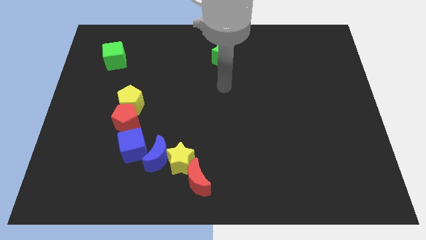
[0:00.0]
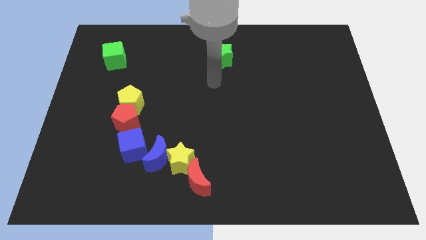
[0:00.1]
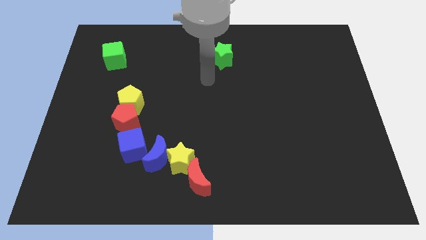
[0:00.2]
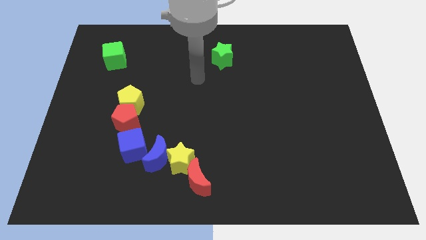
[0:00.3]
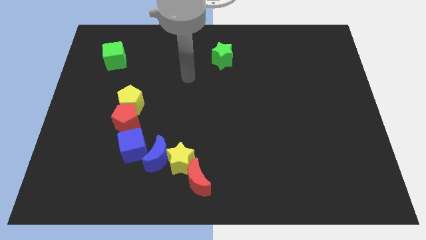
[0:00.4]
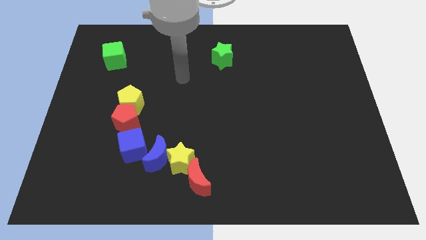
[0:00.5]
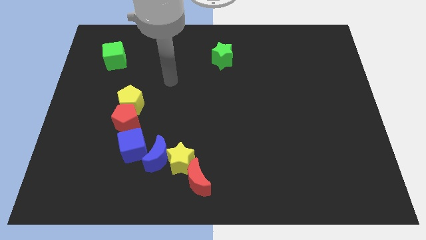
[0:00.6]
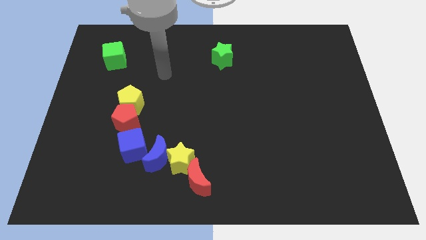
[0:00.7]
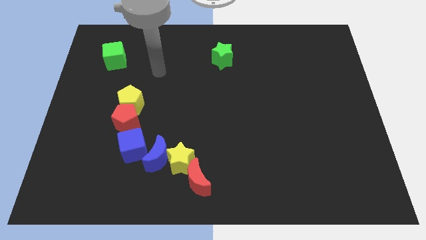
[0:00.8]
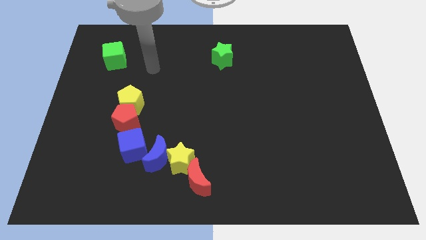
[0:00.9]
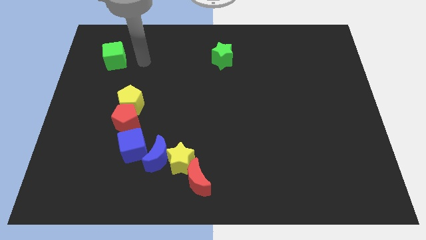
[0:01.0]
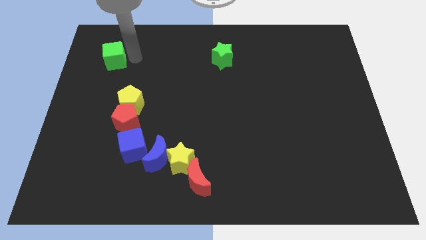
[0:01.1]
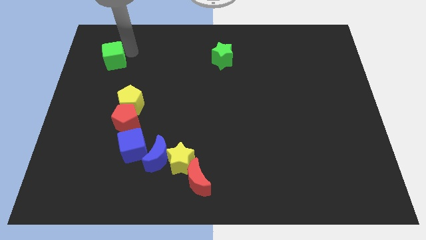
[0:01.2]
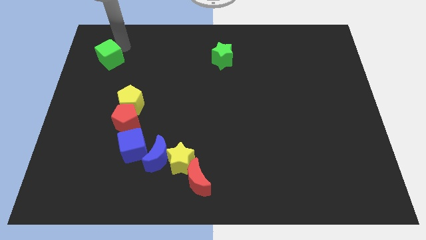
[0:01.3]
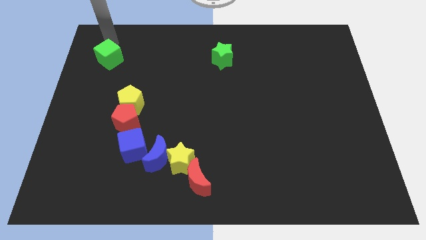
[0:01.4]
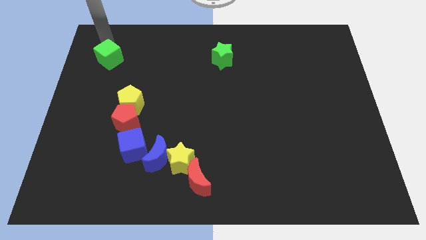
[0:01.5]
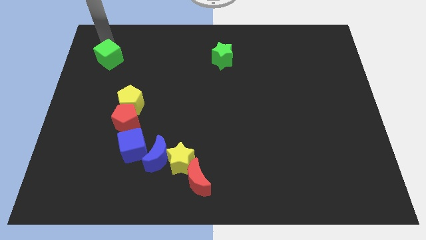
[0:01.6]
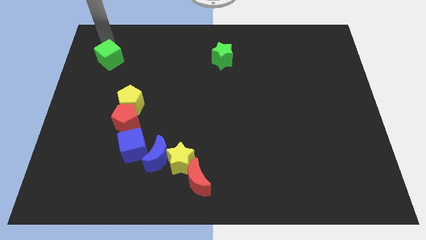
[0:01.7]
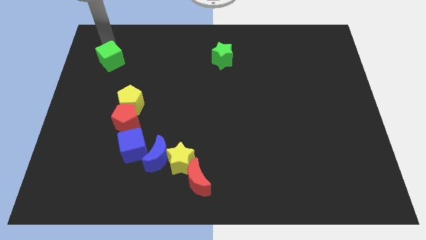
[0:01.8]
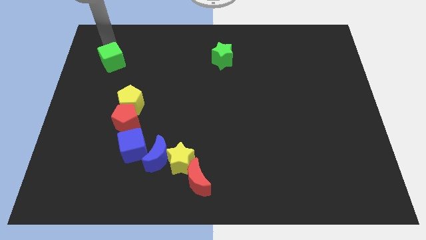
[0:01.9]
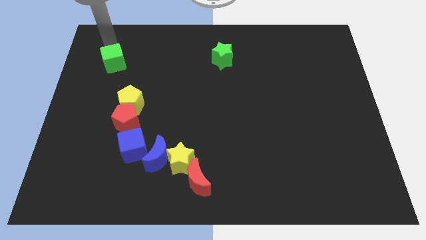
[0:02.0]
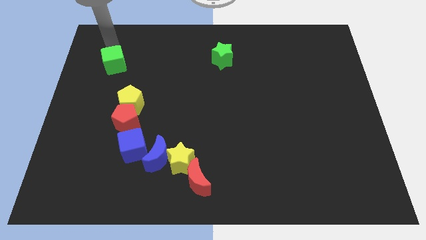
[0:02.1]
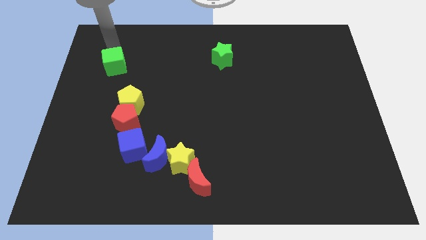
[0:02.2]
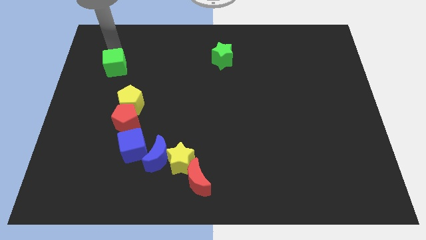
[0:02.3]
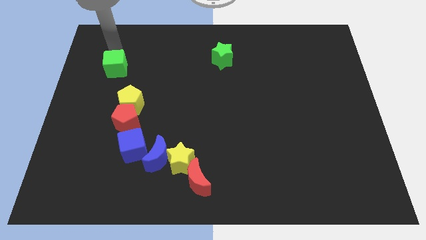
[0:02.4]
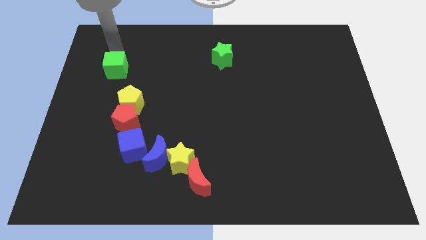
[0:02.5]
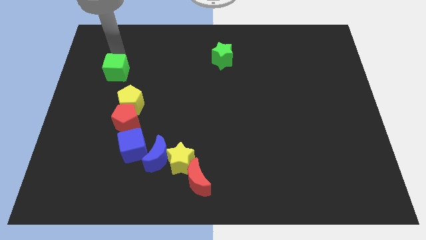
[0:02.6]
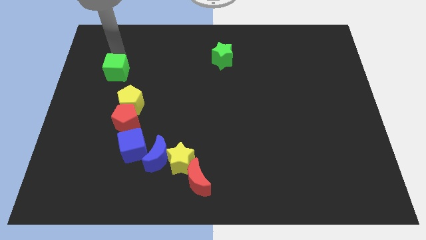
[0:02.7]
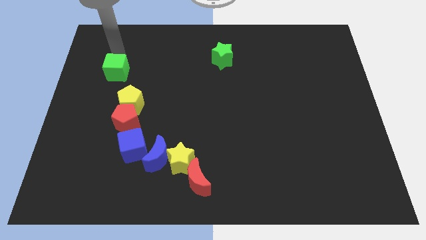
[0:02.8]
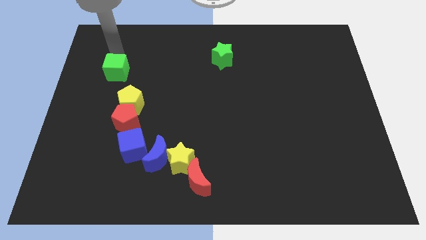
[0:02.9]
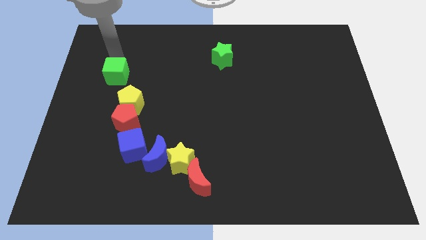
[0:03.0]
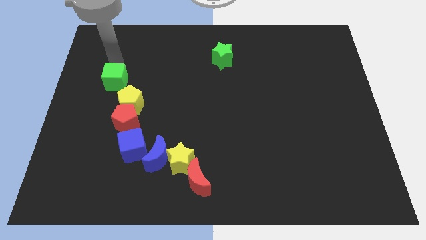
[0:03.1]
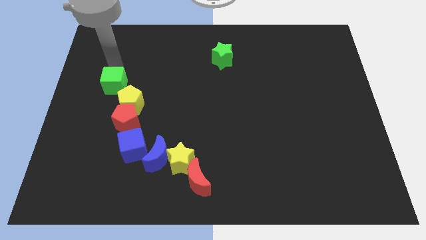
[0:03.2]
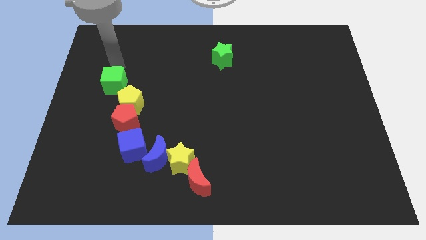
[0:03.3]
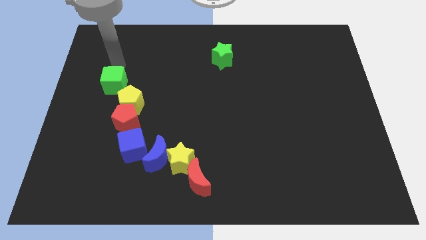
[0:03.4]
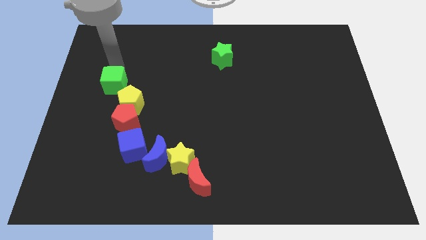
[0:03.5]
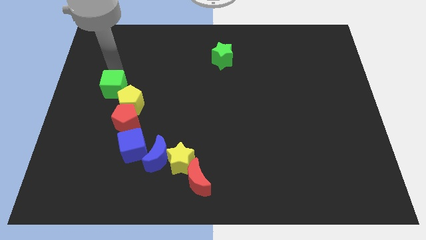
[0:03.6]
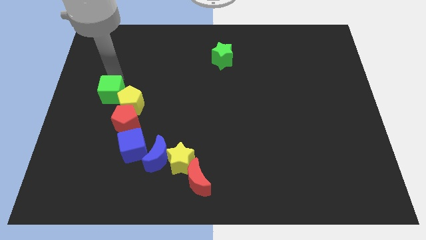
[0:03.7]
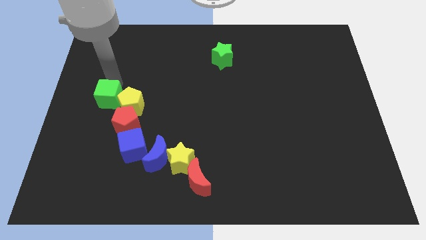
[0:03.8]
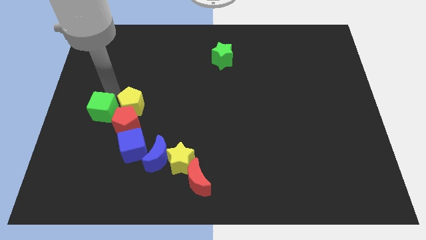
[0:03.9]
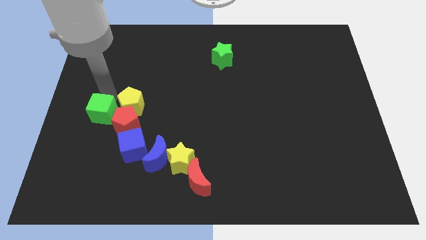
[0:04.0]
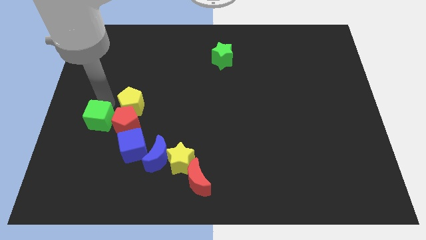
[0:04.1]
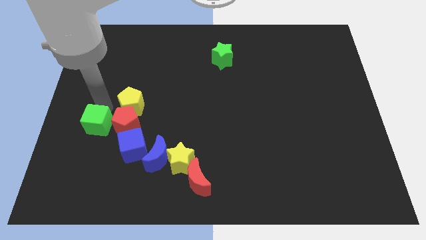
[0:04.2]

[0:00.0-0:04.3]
move the green cube down

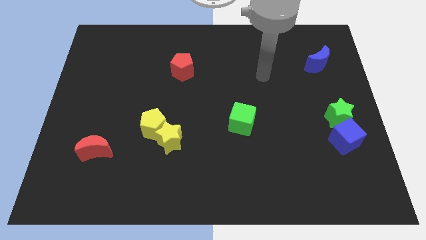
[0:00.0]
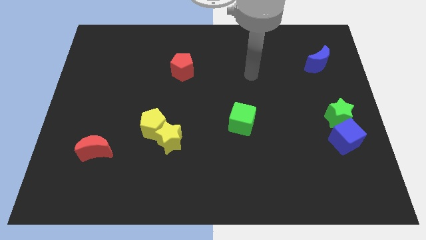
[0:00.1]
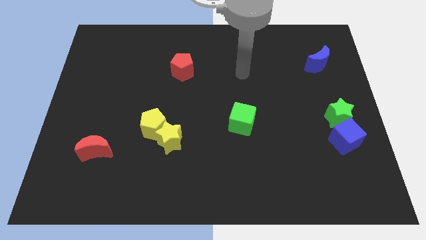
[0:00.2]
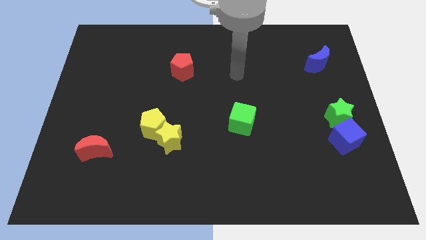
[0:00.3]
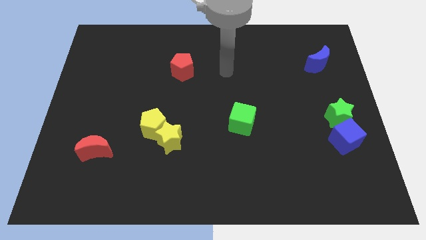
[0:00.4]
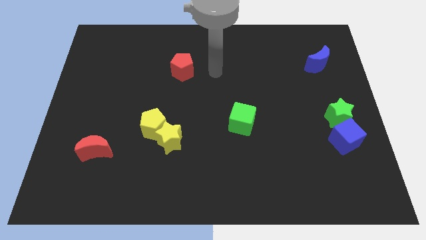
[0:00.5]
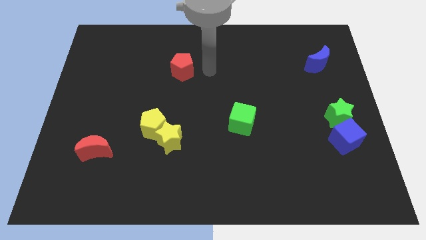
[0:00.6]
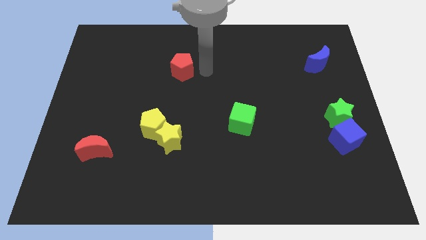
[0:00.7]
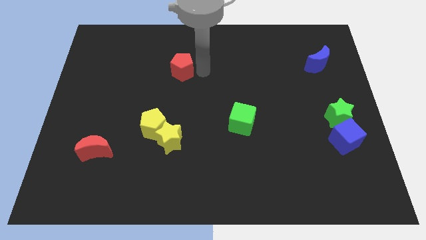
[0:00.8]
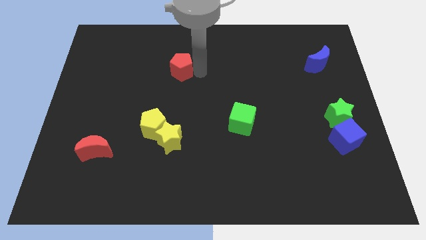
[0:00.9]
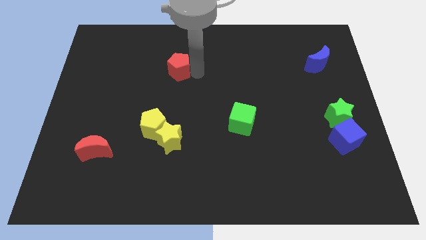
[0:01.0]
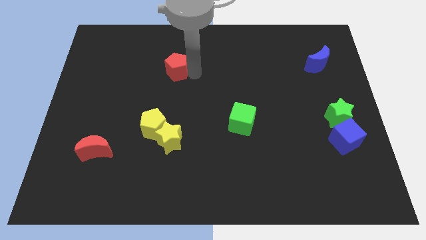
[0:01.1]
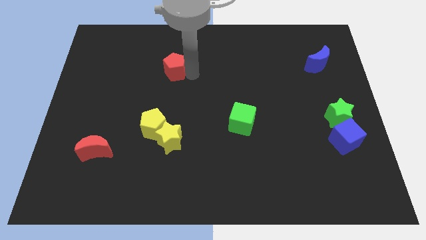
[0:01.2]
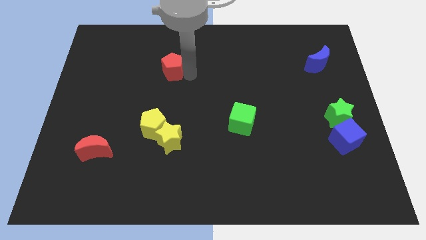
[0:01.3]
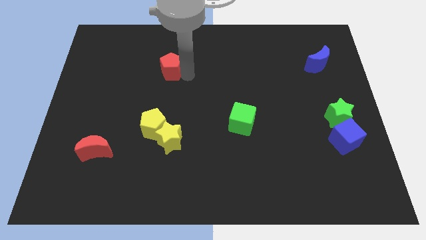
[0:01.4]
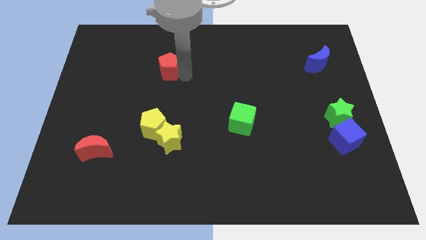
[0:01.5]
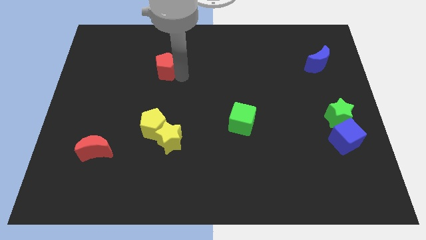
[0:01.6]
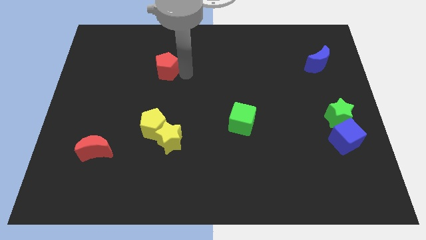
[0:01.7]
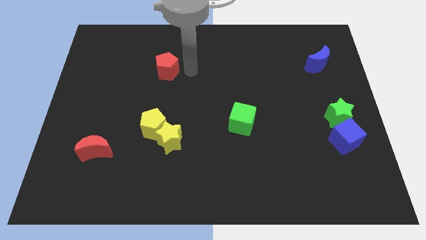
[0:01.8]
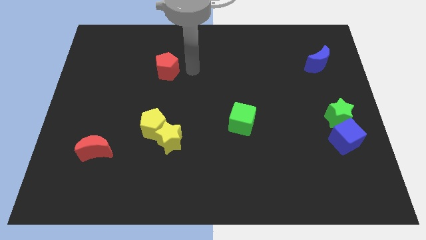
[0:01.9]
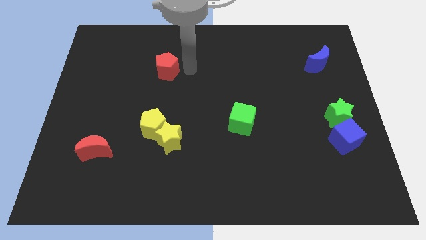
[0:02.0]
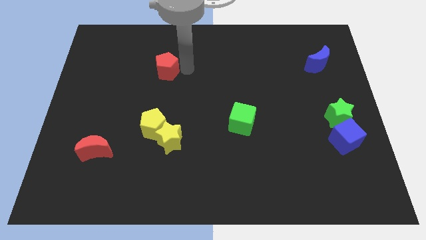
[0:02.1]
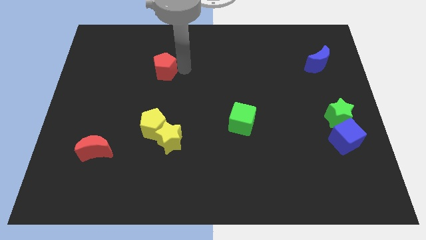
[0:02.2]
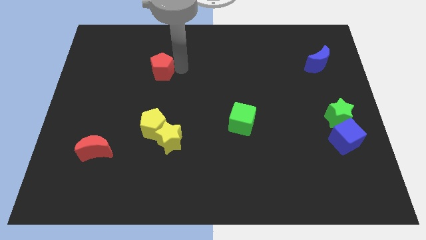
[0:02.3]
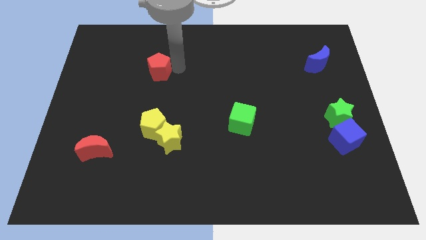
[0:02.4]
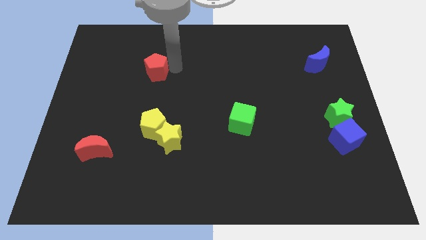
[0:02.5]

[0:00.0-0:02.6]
move the red pentagon a little left

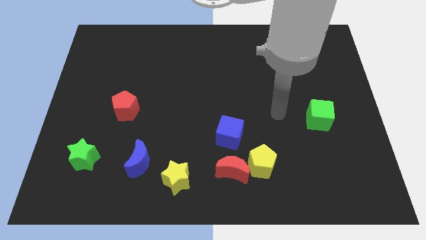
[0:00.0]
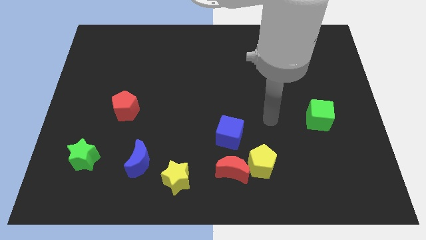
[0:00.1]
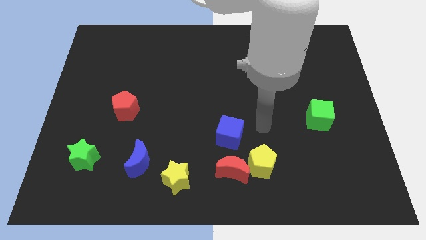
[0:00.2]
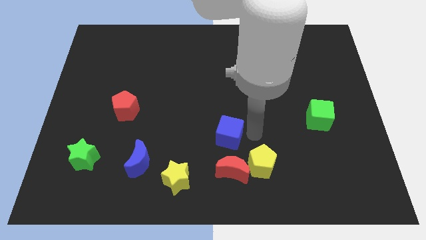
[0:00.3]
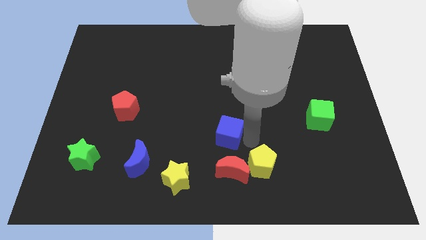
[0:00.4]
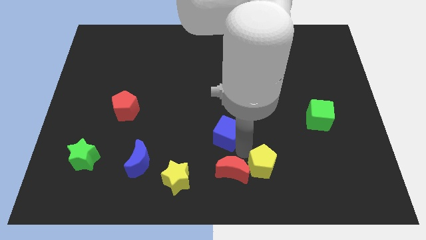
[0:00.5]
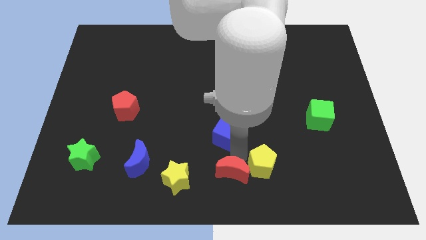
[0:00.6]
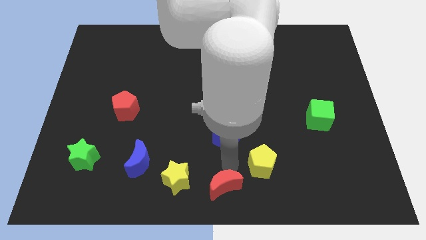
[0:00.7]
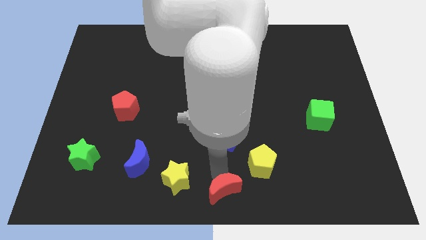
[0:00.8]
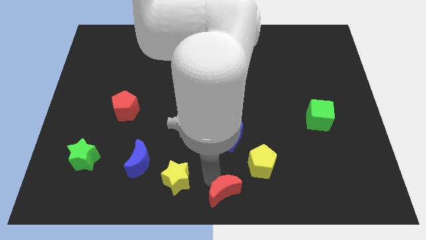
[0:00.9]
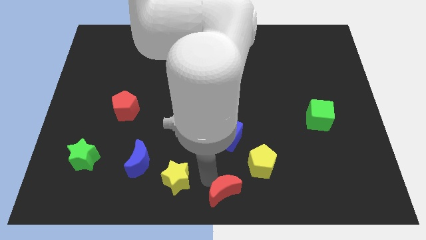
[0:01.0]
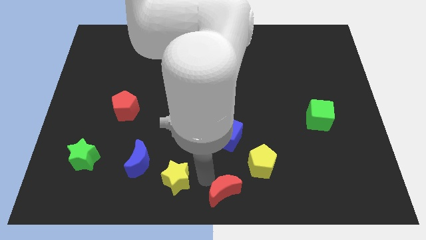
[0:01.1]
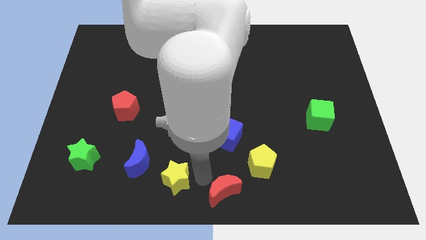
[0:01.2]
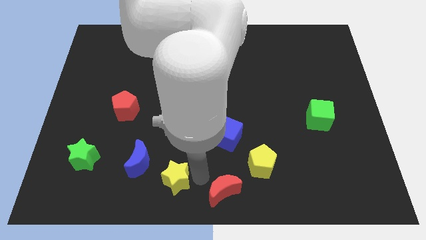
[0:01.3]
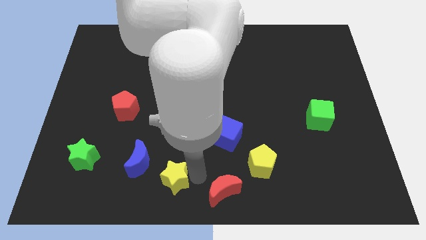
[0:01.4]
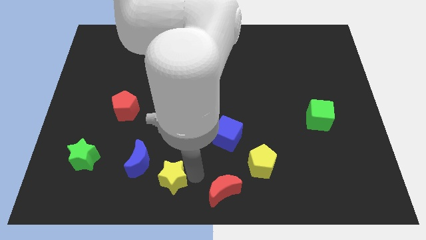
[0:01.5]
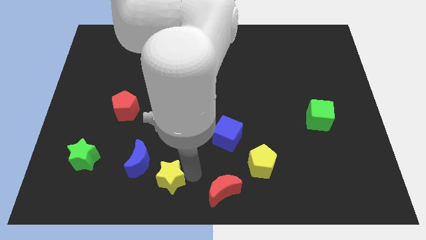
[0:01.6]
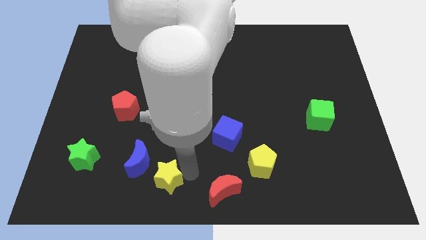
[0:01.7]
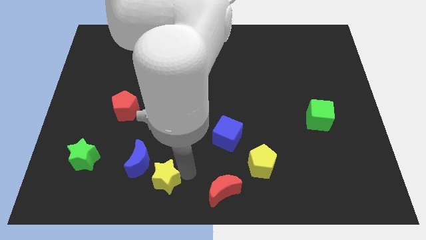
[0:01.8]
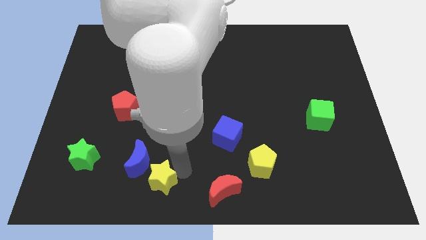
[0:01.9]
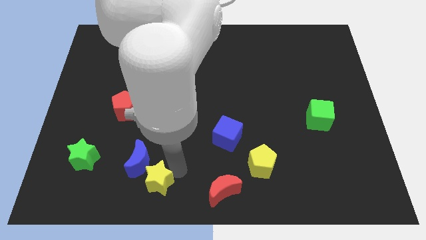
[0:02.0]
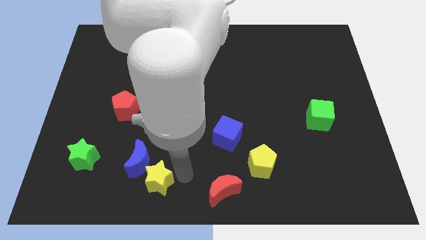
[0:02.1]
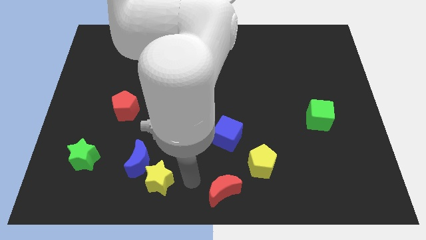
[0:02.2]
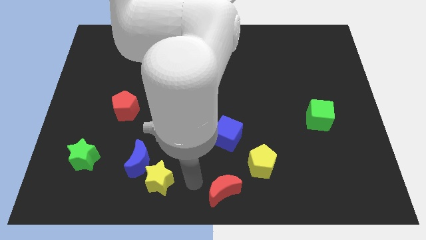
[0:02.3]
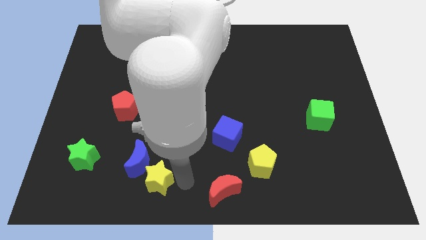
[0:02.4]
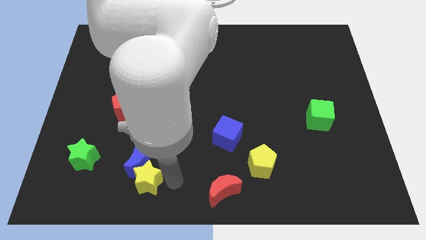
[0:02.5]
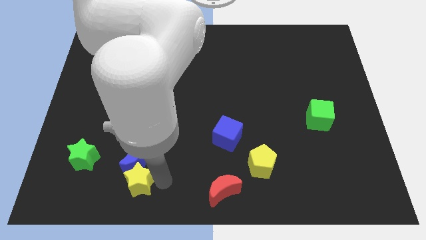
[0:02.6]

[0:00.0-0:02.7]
push the yellow star a little to the left
